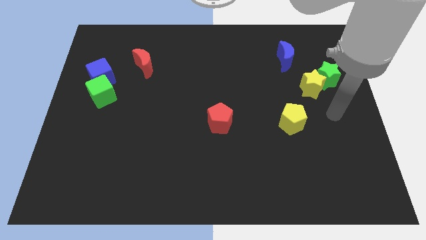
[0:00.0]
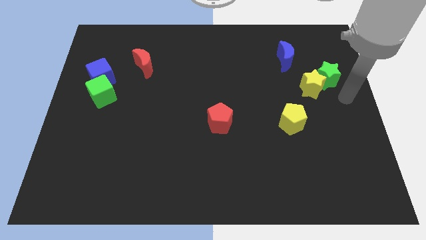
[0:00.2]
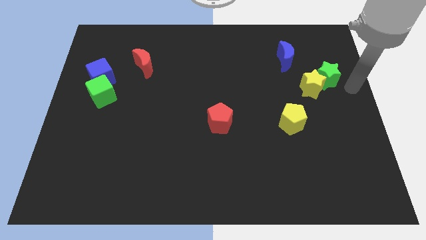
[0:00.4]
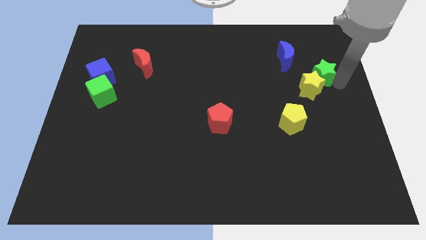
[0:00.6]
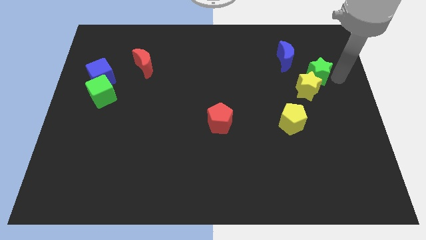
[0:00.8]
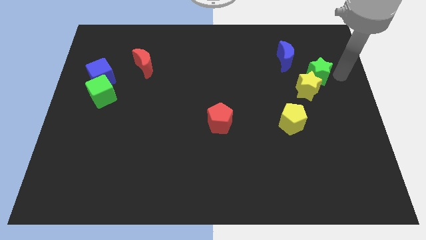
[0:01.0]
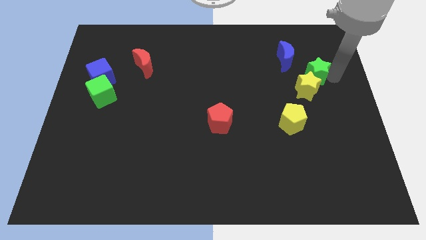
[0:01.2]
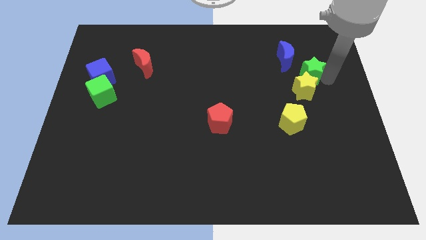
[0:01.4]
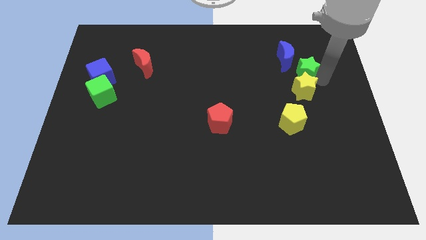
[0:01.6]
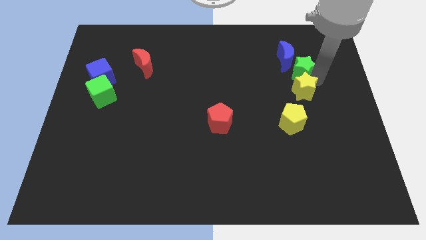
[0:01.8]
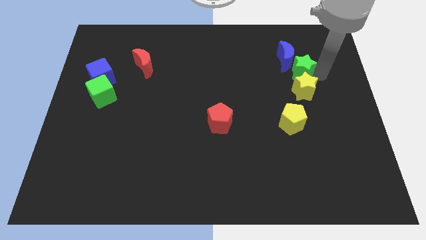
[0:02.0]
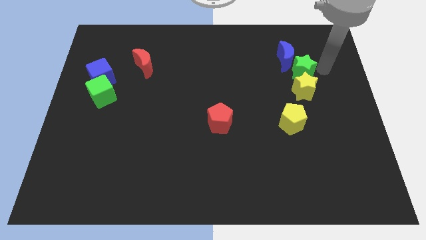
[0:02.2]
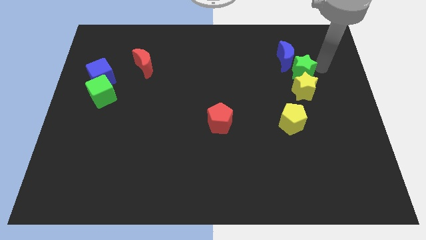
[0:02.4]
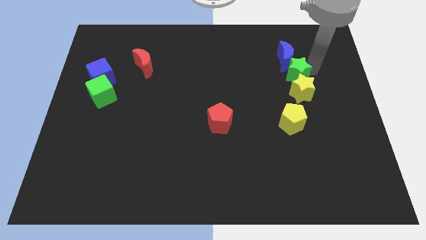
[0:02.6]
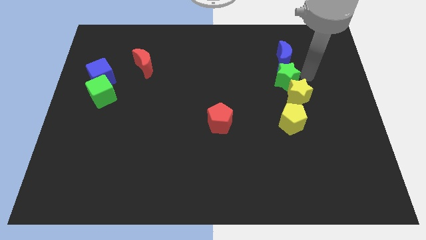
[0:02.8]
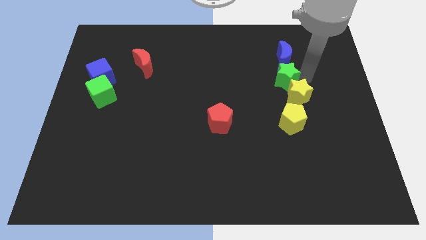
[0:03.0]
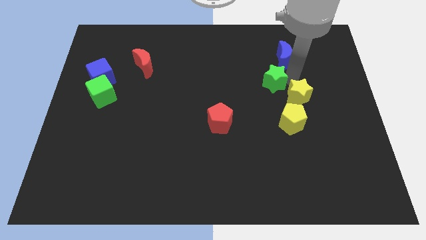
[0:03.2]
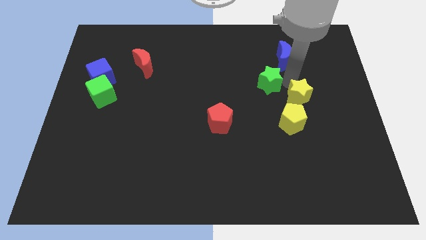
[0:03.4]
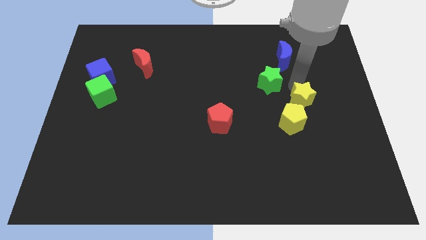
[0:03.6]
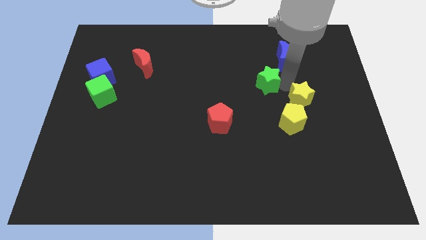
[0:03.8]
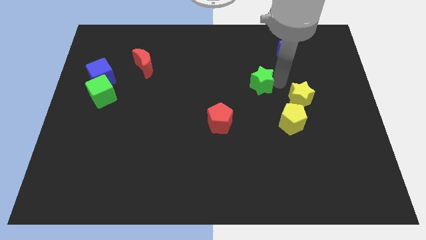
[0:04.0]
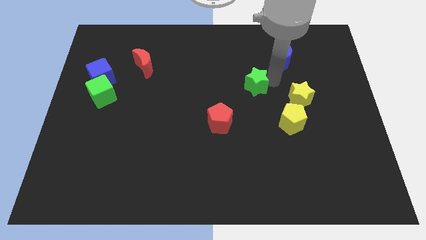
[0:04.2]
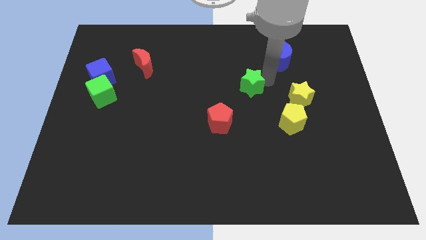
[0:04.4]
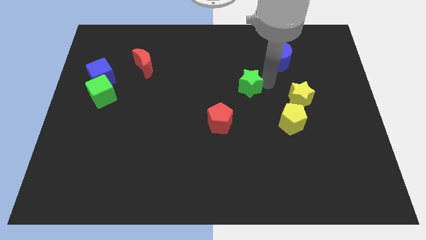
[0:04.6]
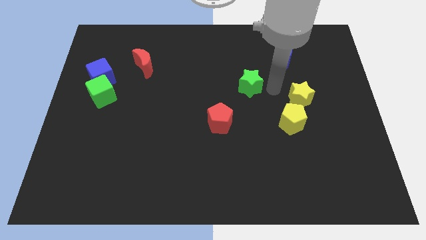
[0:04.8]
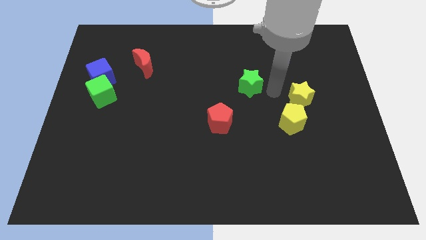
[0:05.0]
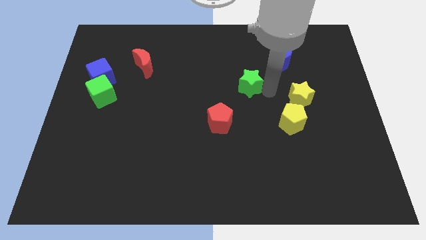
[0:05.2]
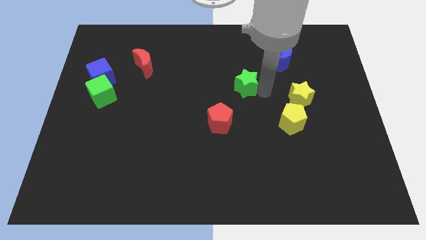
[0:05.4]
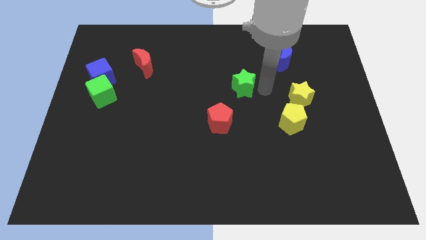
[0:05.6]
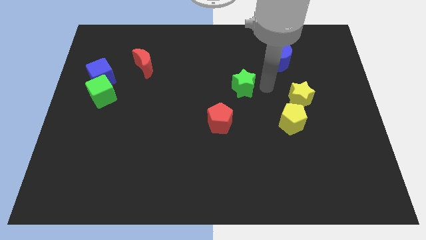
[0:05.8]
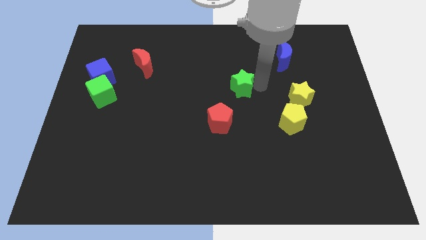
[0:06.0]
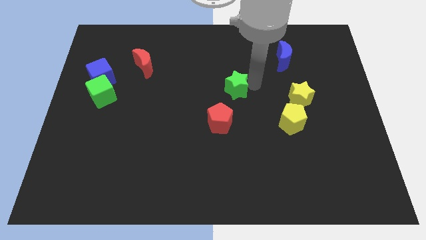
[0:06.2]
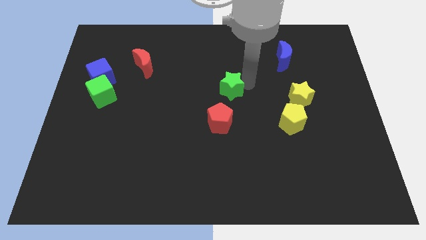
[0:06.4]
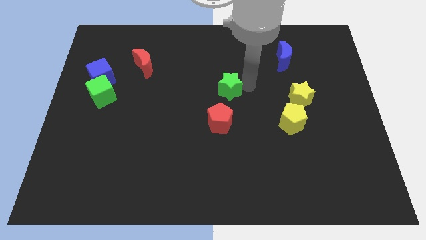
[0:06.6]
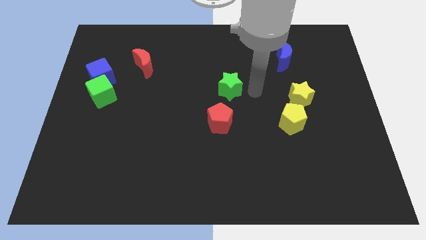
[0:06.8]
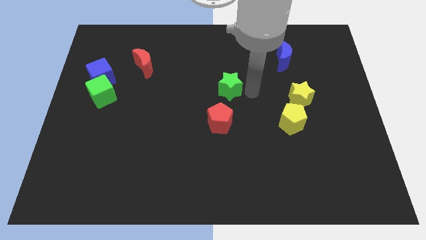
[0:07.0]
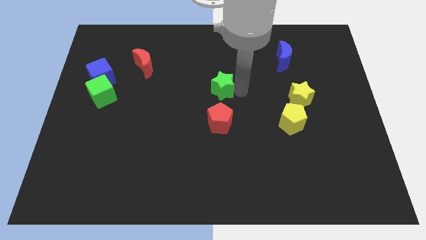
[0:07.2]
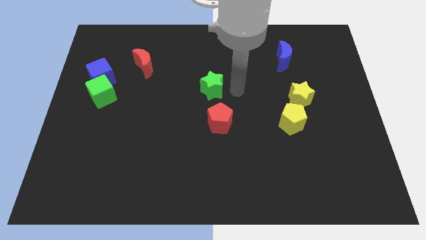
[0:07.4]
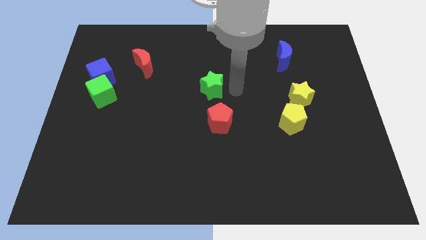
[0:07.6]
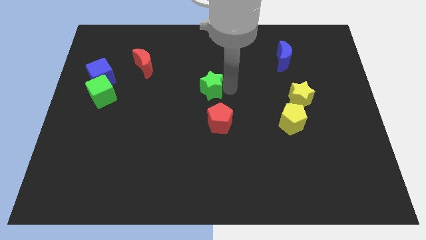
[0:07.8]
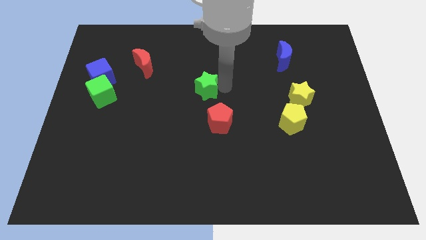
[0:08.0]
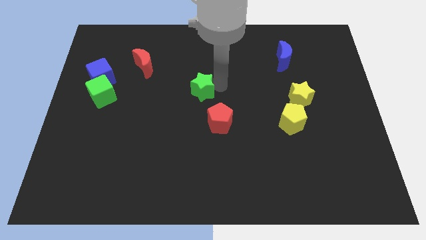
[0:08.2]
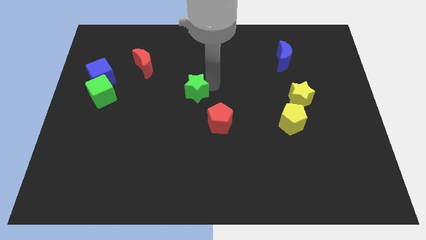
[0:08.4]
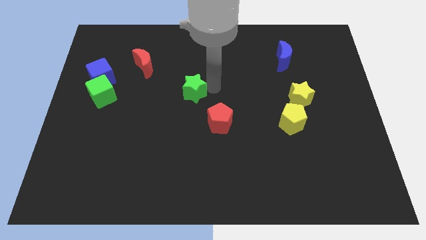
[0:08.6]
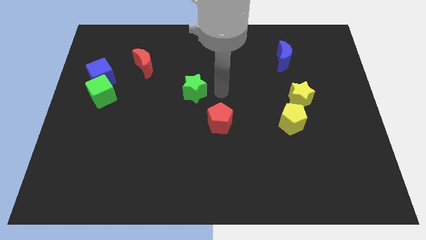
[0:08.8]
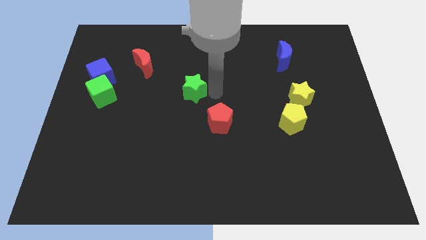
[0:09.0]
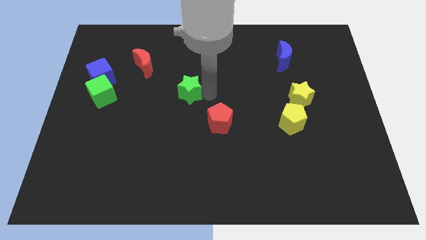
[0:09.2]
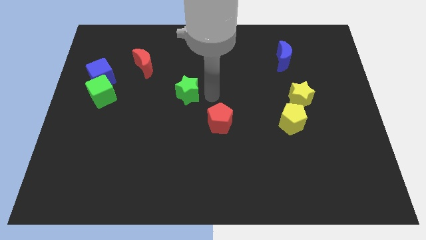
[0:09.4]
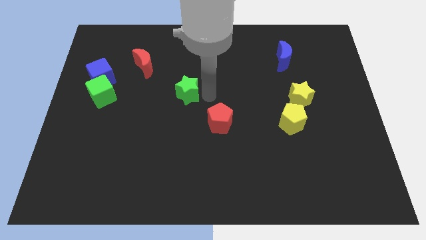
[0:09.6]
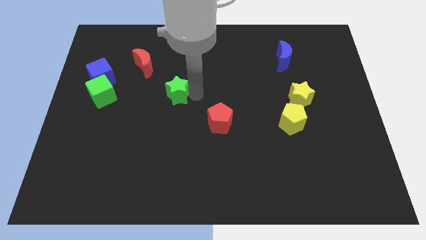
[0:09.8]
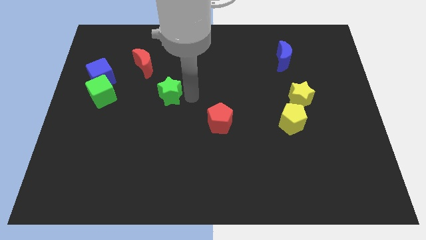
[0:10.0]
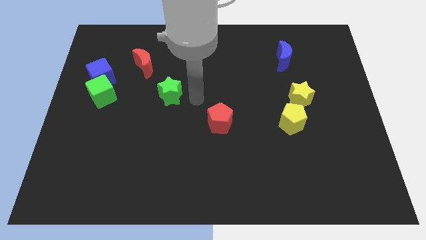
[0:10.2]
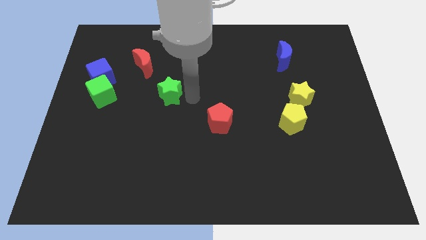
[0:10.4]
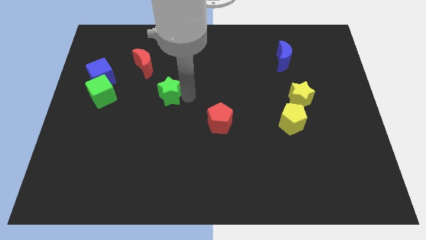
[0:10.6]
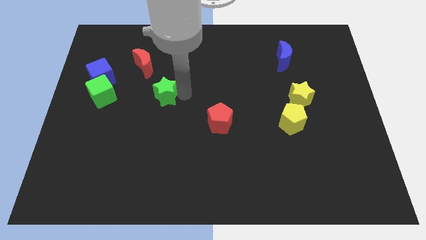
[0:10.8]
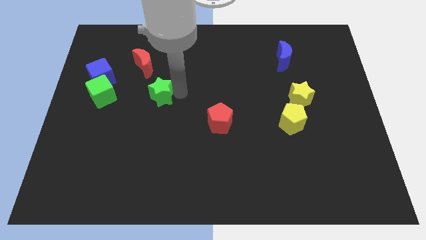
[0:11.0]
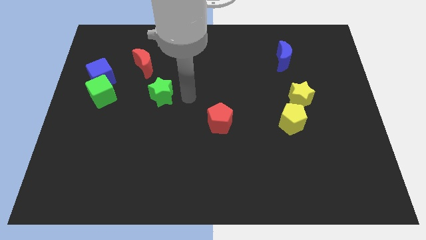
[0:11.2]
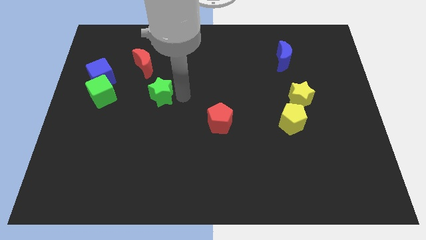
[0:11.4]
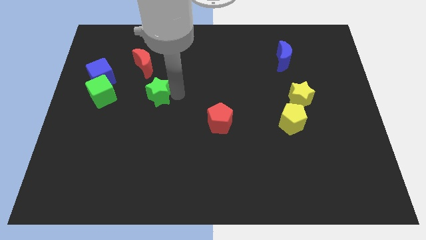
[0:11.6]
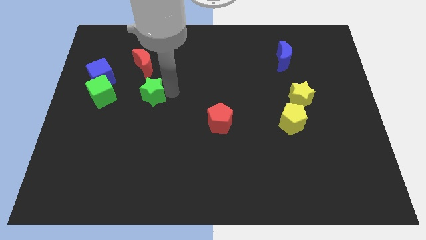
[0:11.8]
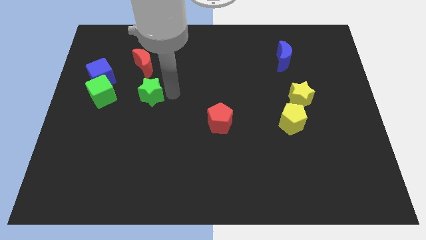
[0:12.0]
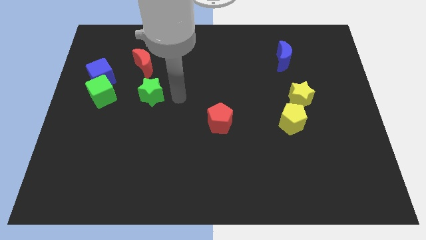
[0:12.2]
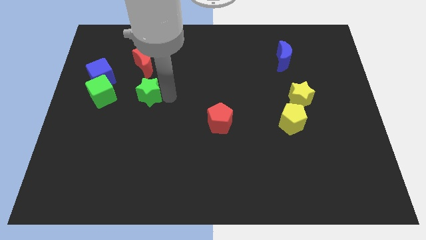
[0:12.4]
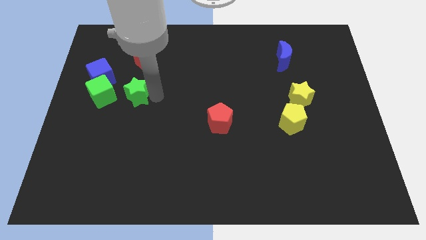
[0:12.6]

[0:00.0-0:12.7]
put the green star to the bottom right of the blue cube
